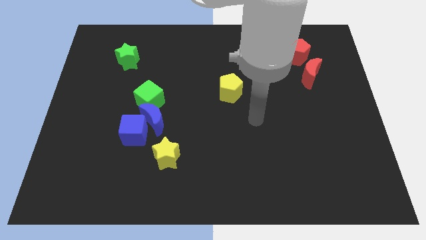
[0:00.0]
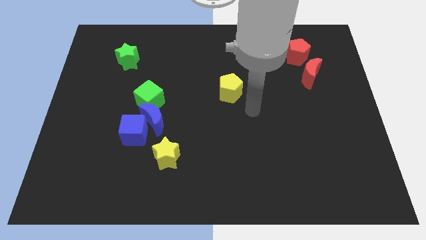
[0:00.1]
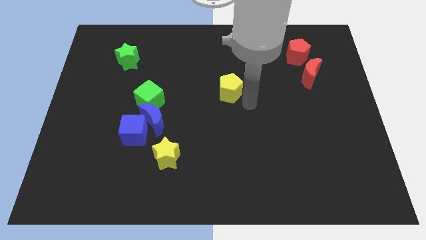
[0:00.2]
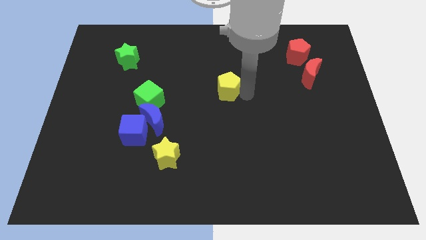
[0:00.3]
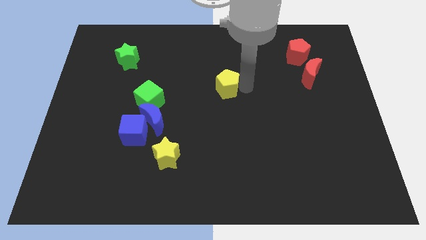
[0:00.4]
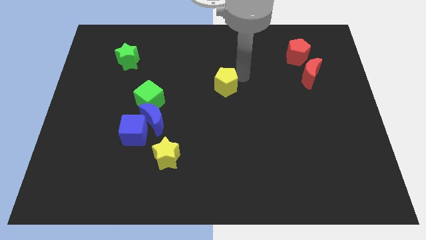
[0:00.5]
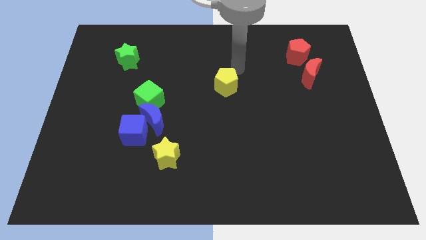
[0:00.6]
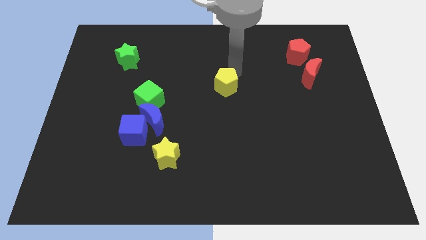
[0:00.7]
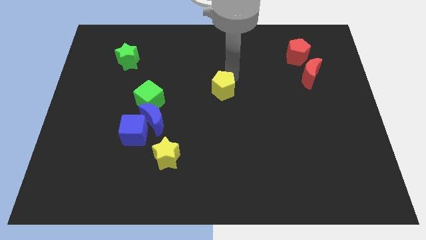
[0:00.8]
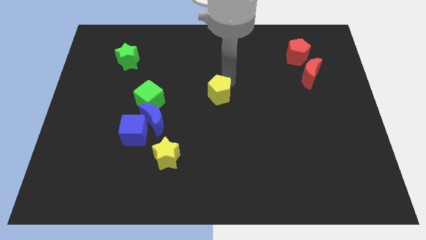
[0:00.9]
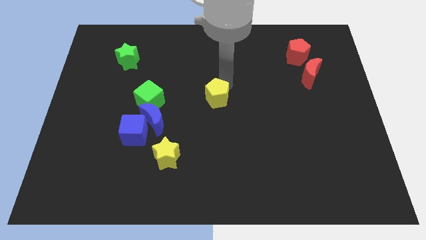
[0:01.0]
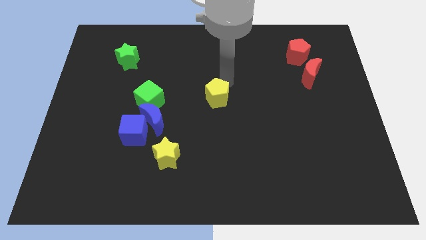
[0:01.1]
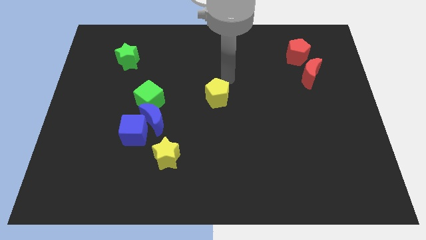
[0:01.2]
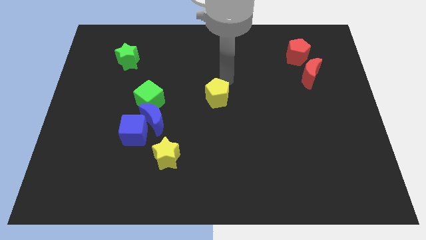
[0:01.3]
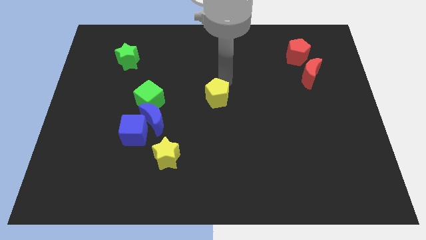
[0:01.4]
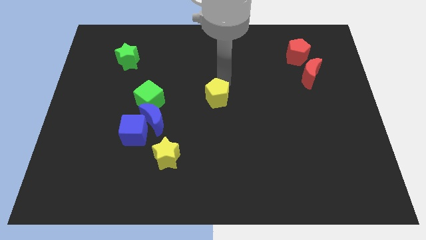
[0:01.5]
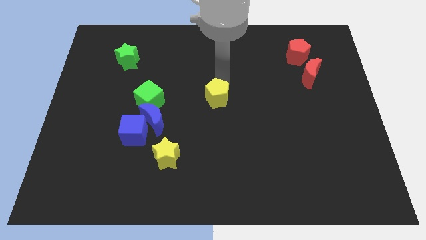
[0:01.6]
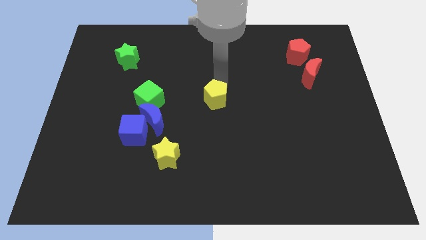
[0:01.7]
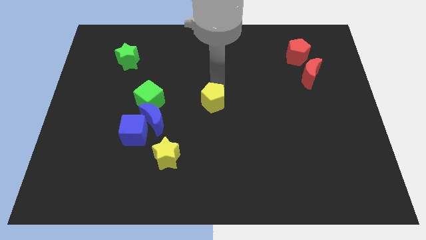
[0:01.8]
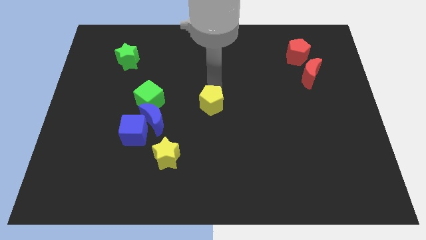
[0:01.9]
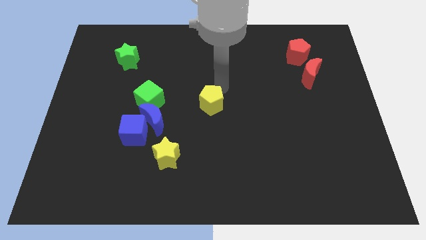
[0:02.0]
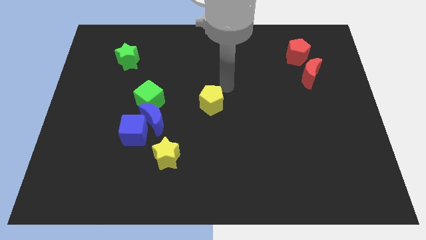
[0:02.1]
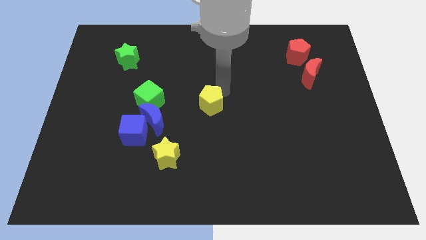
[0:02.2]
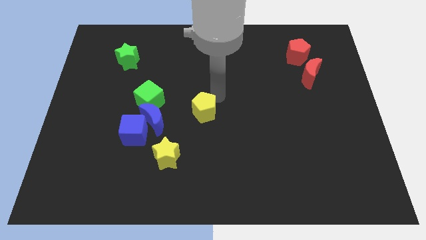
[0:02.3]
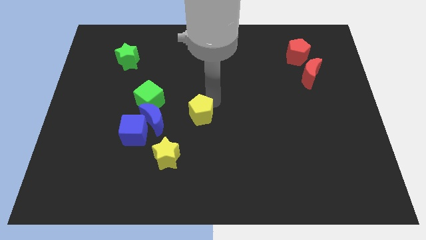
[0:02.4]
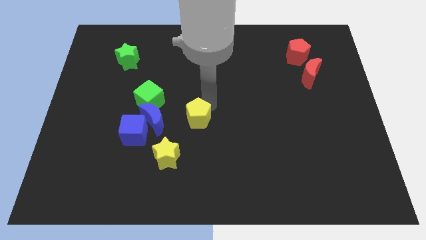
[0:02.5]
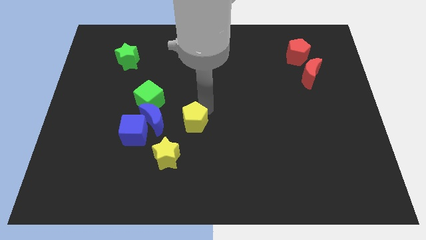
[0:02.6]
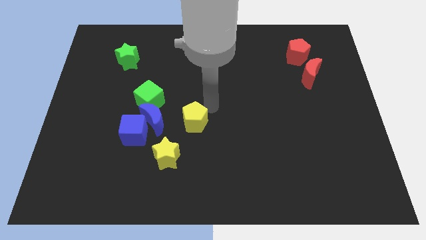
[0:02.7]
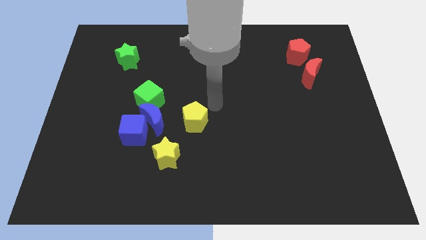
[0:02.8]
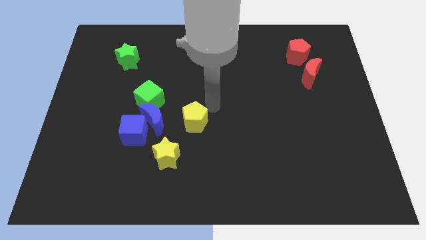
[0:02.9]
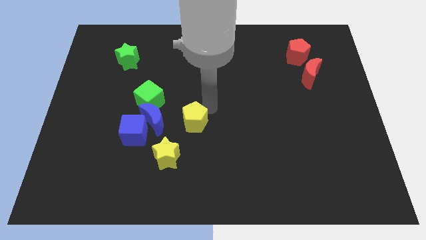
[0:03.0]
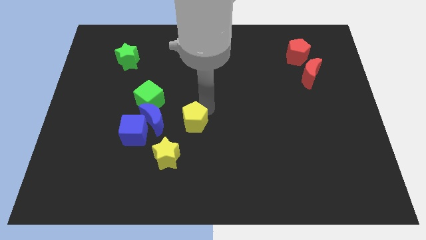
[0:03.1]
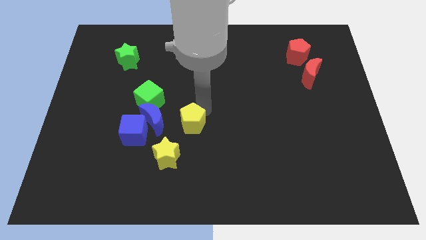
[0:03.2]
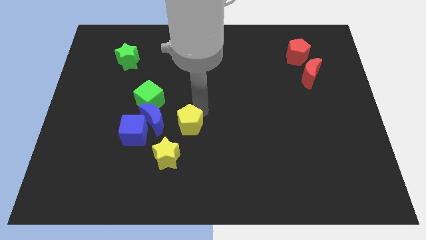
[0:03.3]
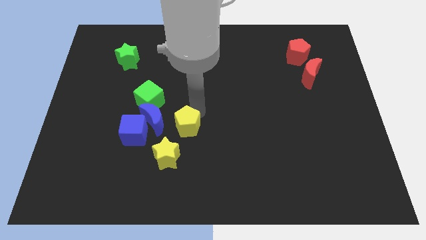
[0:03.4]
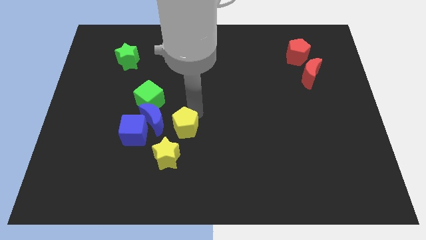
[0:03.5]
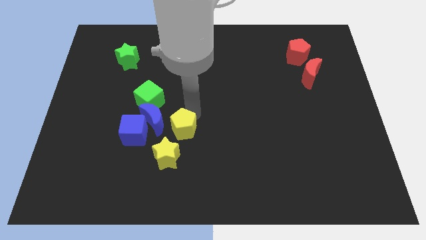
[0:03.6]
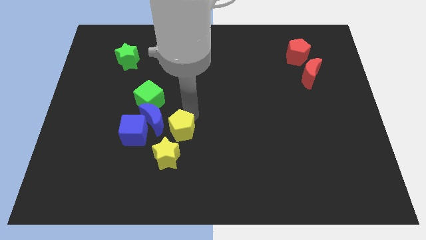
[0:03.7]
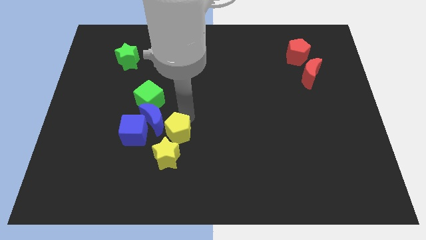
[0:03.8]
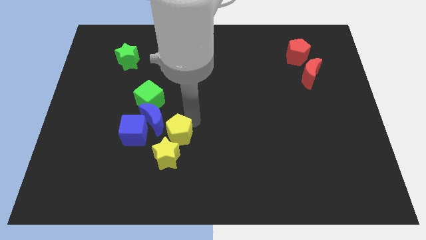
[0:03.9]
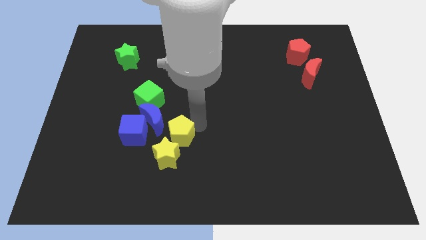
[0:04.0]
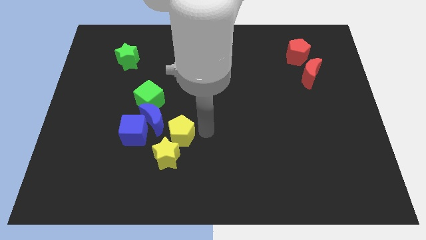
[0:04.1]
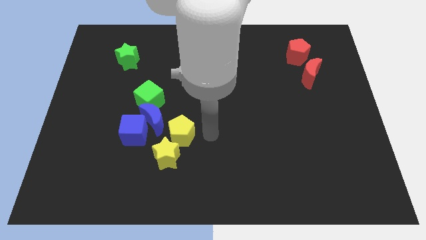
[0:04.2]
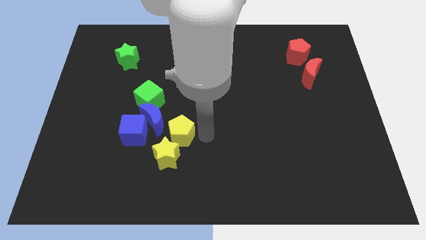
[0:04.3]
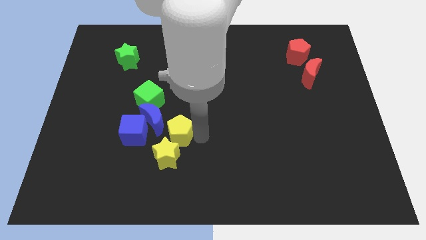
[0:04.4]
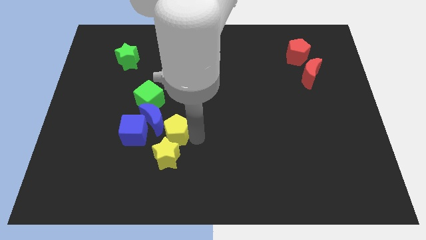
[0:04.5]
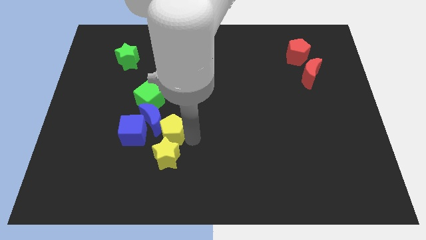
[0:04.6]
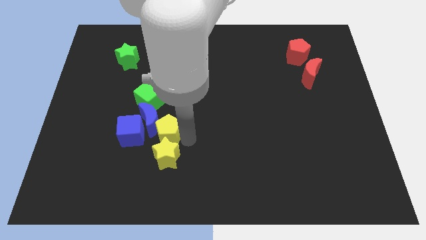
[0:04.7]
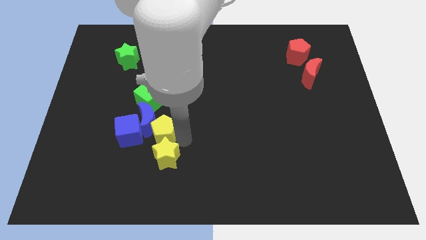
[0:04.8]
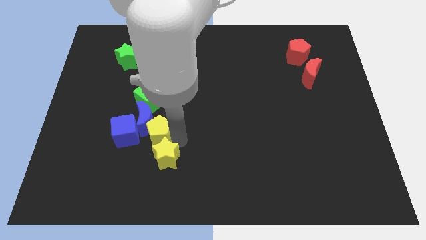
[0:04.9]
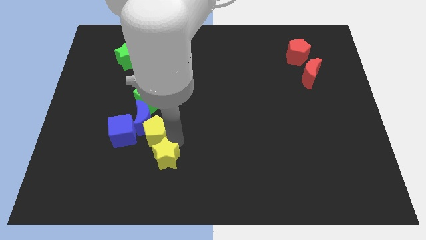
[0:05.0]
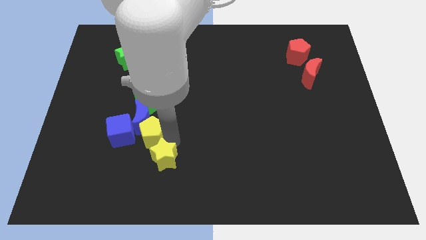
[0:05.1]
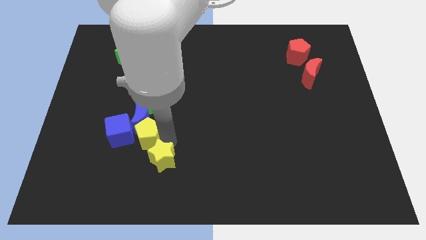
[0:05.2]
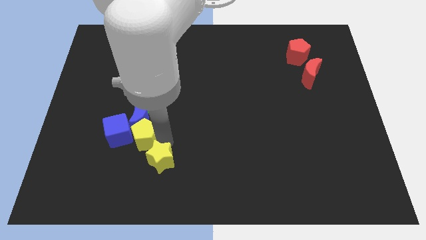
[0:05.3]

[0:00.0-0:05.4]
push the yellow pentagon next to the blue cube

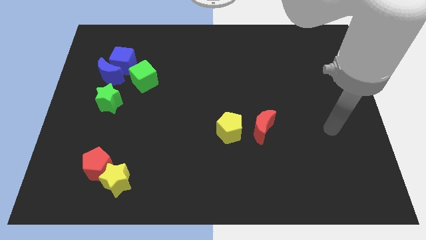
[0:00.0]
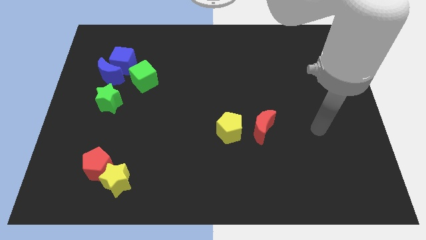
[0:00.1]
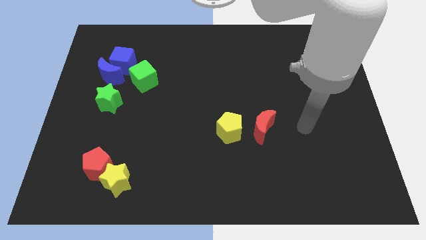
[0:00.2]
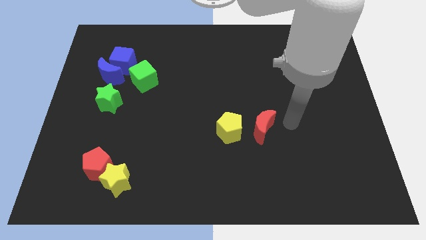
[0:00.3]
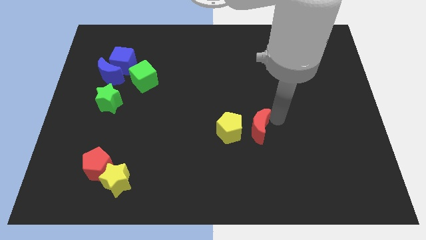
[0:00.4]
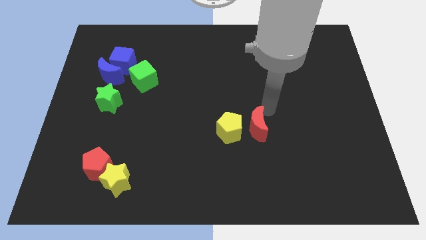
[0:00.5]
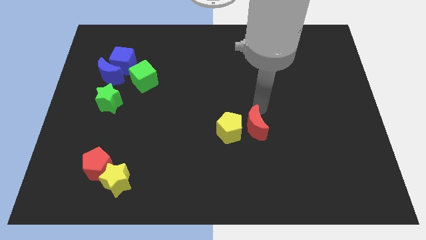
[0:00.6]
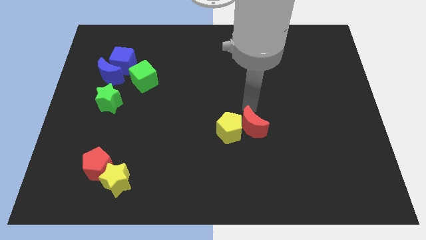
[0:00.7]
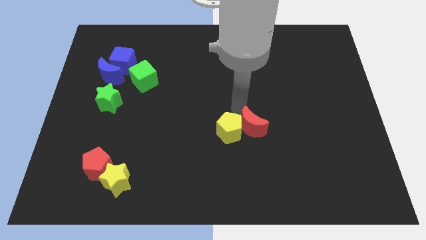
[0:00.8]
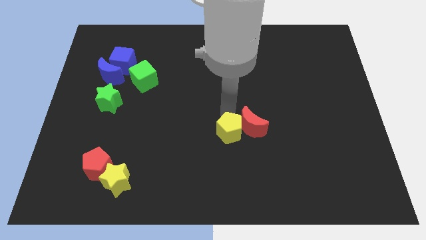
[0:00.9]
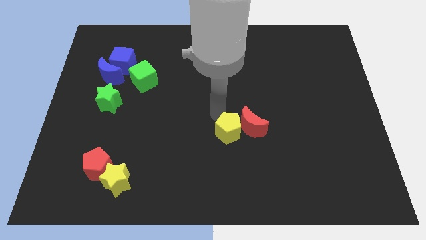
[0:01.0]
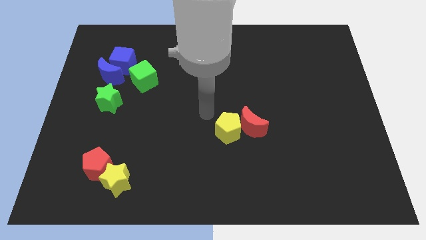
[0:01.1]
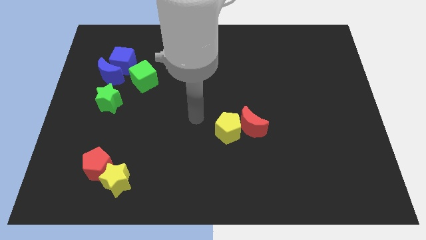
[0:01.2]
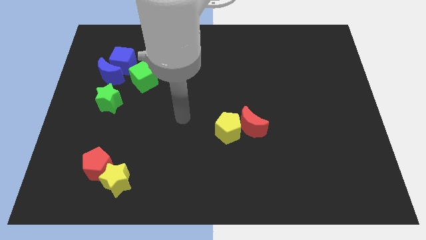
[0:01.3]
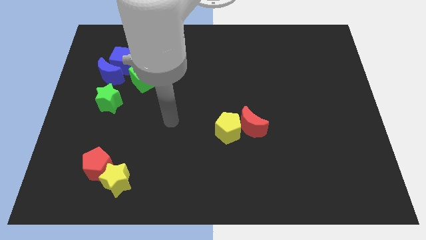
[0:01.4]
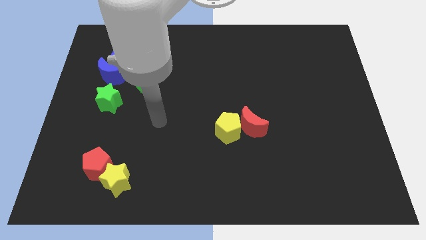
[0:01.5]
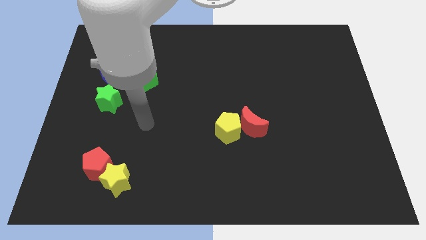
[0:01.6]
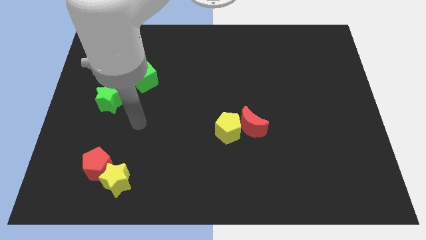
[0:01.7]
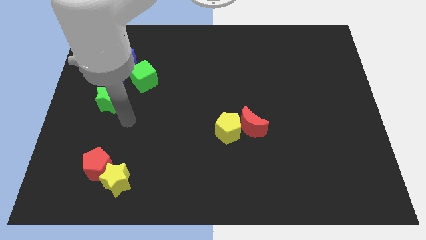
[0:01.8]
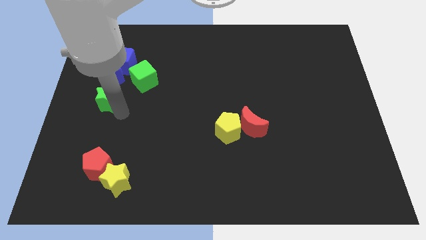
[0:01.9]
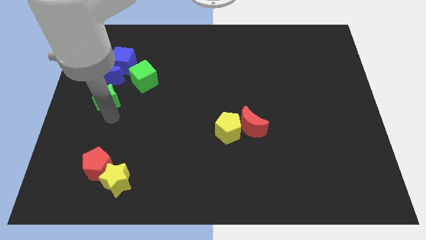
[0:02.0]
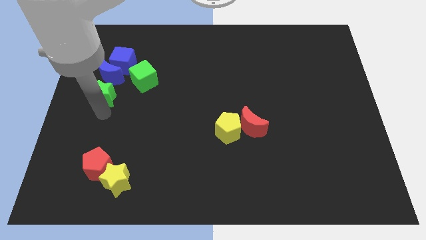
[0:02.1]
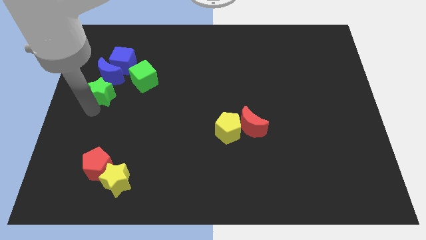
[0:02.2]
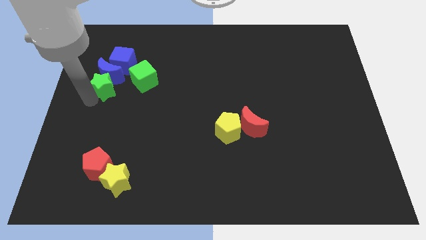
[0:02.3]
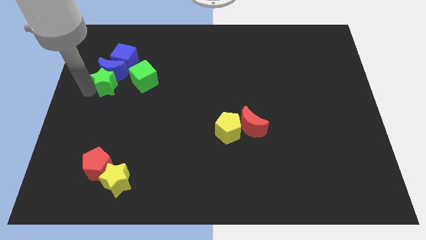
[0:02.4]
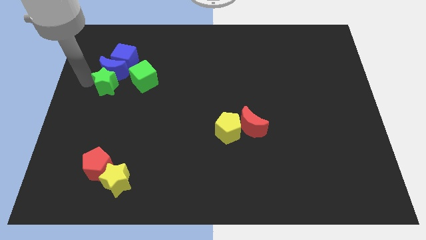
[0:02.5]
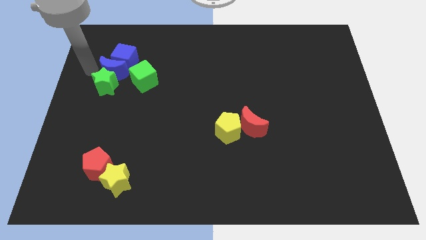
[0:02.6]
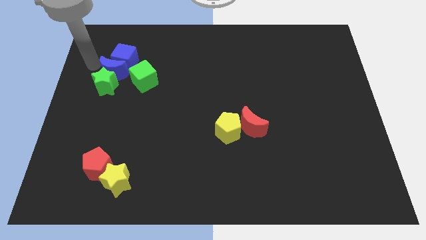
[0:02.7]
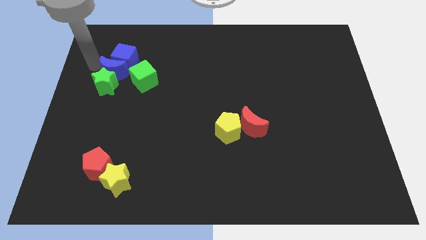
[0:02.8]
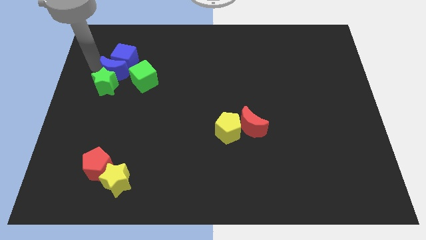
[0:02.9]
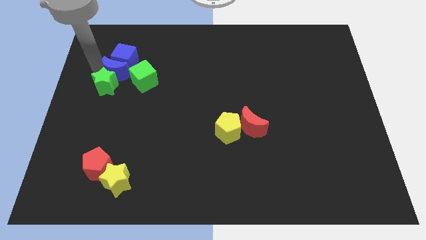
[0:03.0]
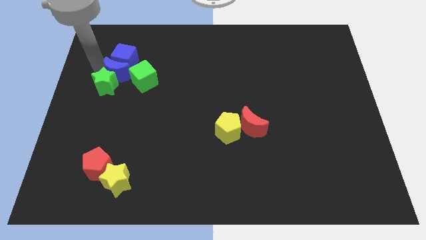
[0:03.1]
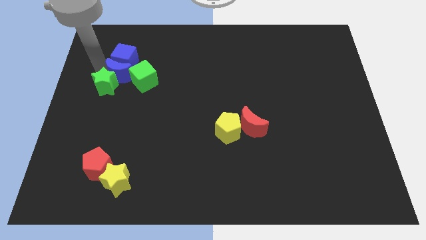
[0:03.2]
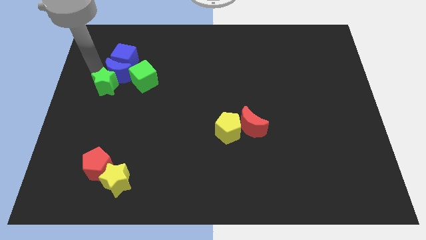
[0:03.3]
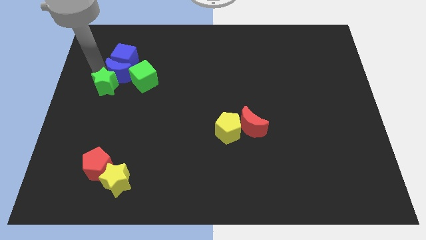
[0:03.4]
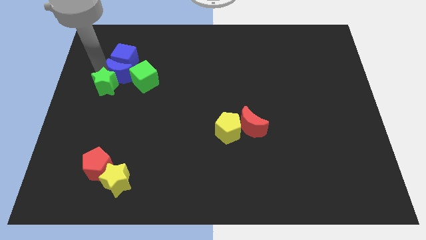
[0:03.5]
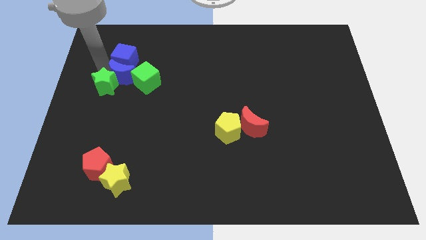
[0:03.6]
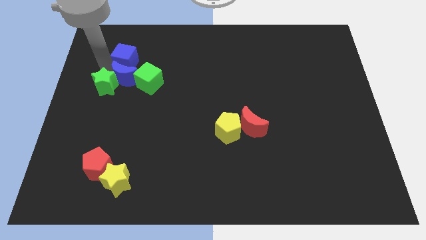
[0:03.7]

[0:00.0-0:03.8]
put the blue moon close to the green cube
